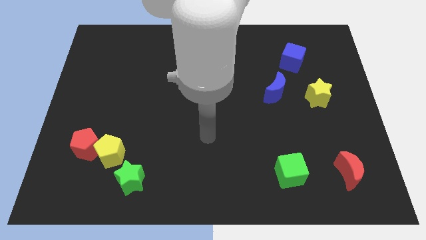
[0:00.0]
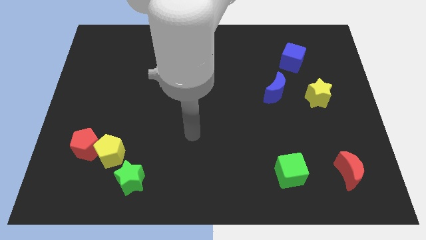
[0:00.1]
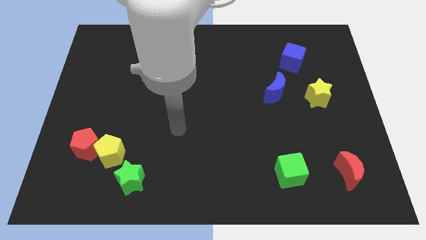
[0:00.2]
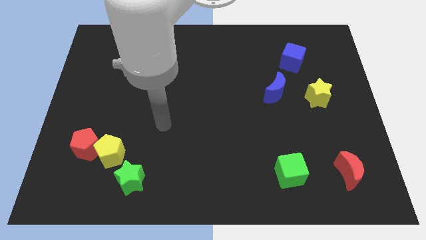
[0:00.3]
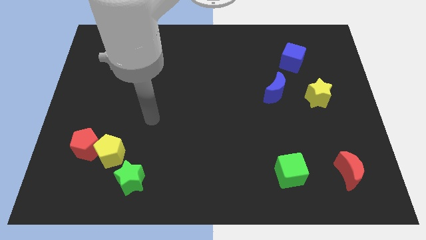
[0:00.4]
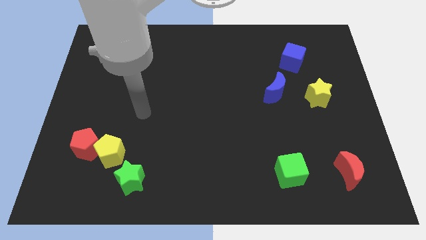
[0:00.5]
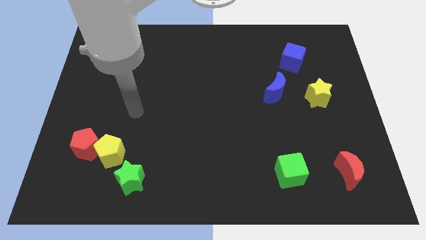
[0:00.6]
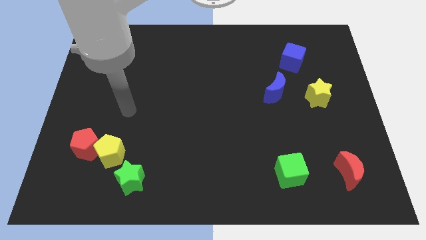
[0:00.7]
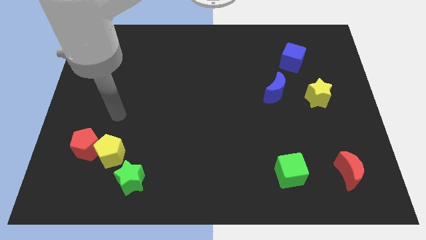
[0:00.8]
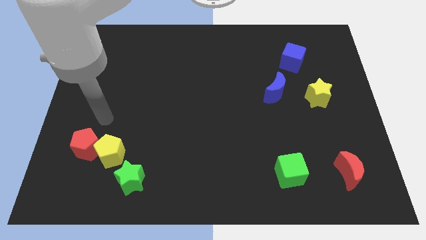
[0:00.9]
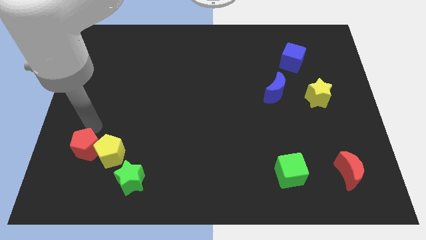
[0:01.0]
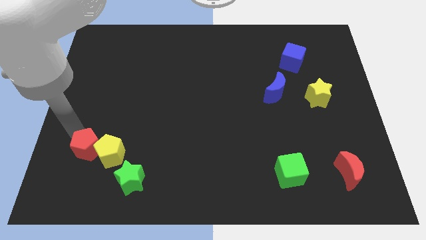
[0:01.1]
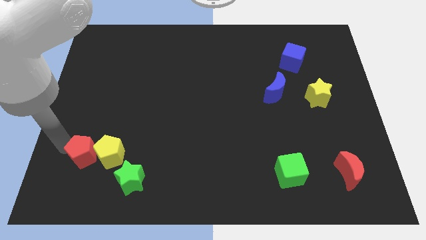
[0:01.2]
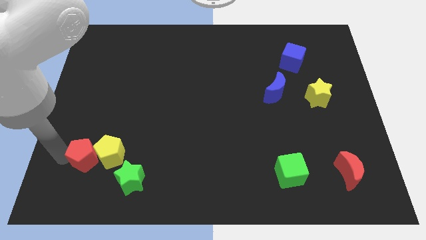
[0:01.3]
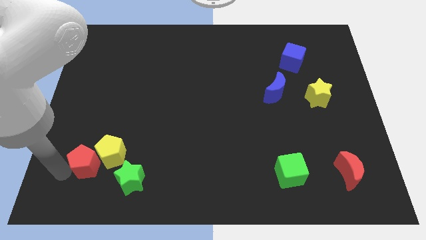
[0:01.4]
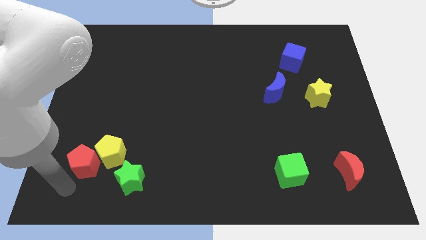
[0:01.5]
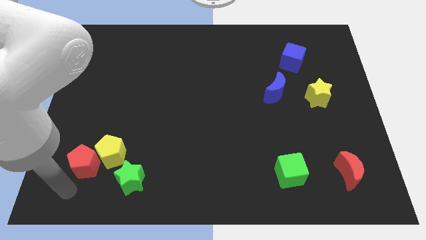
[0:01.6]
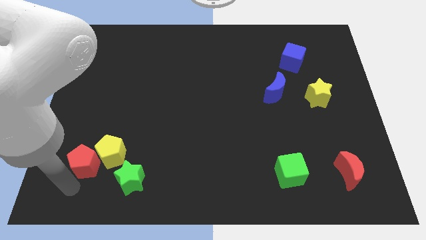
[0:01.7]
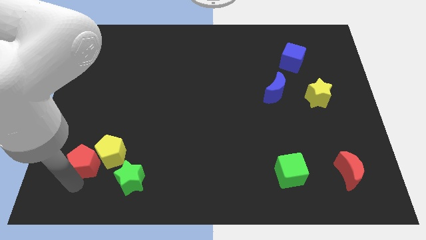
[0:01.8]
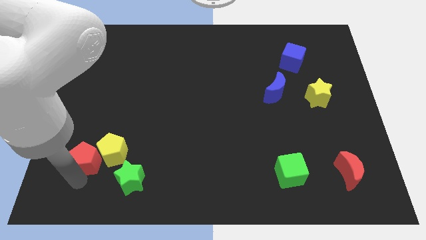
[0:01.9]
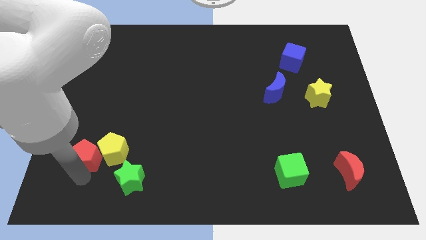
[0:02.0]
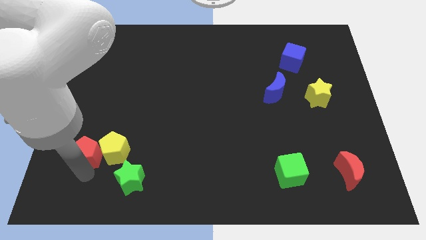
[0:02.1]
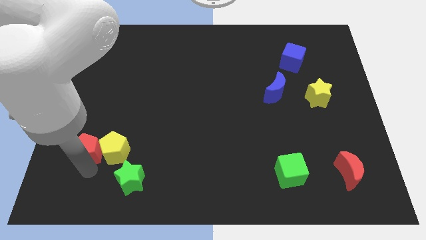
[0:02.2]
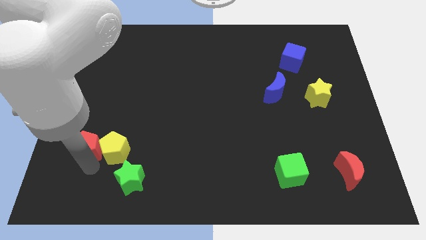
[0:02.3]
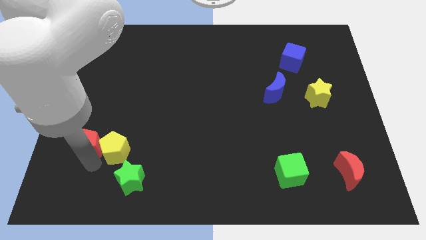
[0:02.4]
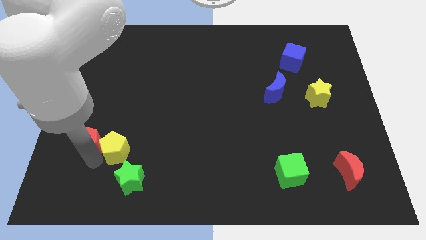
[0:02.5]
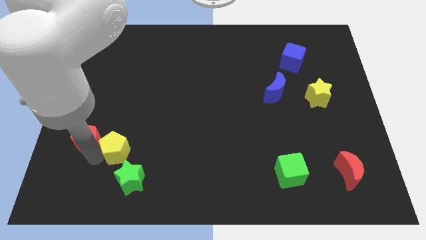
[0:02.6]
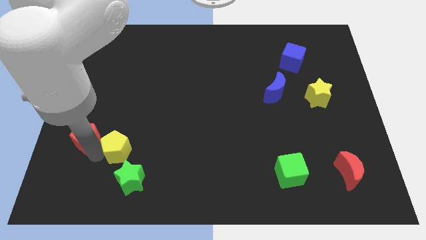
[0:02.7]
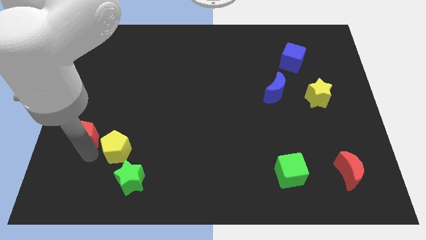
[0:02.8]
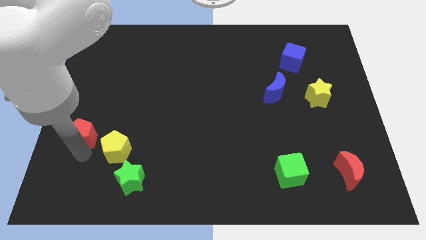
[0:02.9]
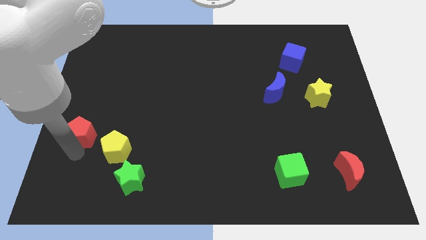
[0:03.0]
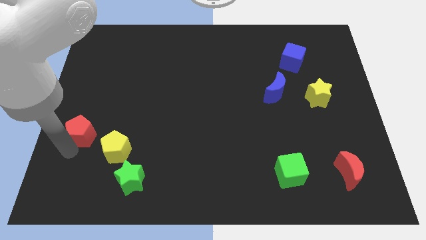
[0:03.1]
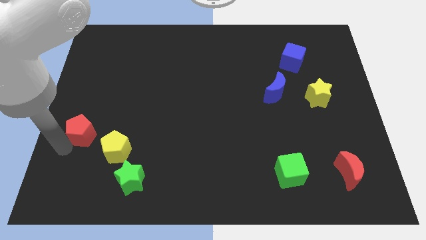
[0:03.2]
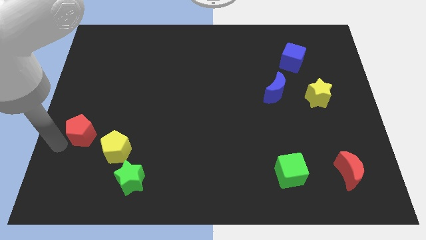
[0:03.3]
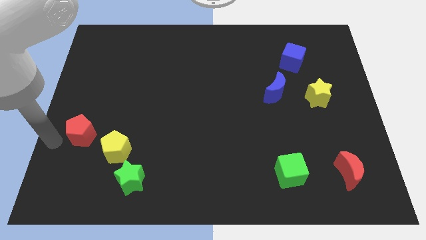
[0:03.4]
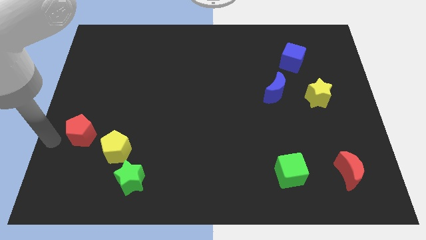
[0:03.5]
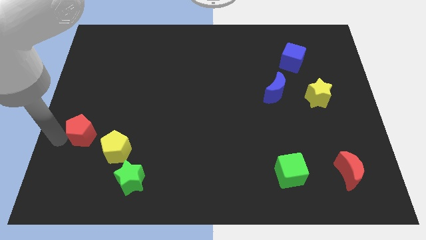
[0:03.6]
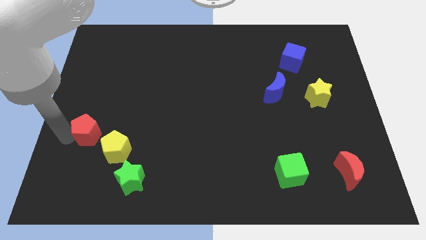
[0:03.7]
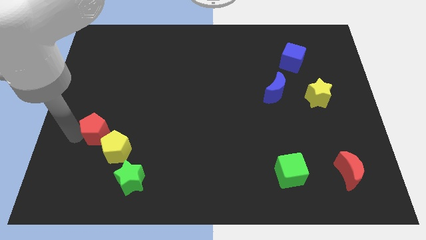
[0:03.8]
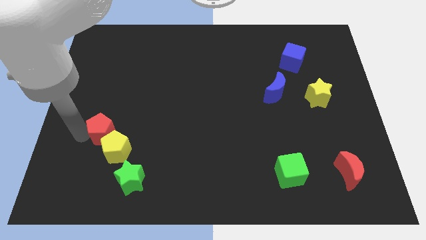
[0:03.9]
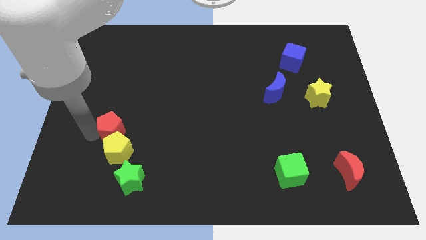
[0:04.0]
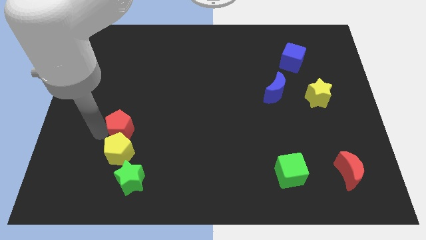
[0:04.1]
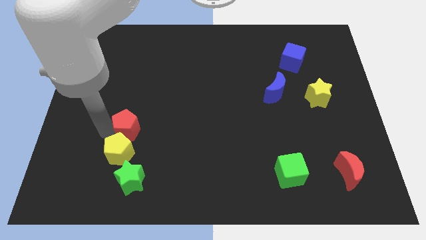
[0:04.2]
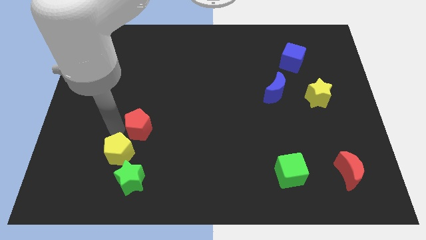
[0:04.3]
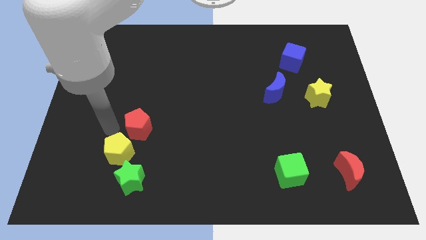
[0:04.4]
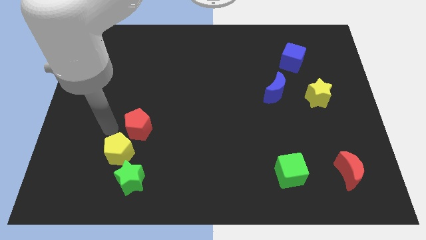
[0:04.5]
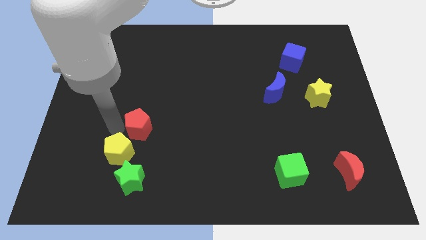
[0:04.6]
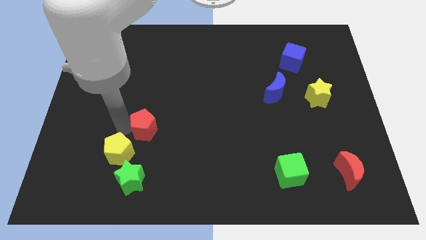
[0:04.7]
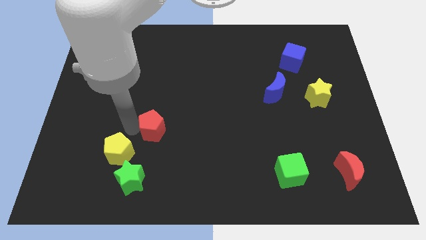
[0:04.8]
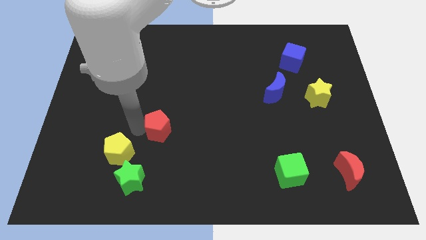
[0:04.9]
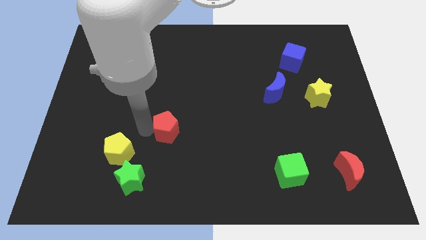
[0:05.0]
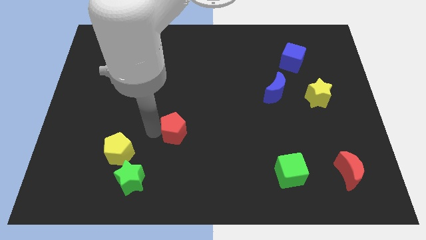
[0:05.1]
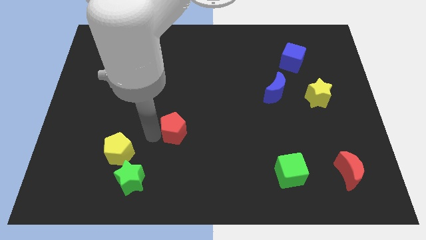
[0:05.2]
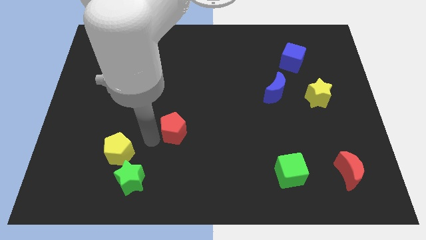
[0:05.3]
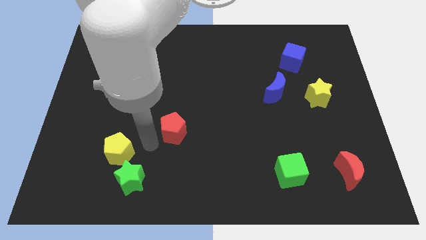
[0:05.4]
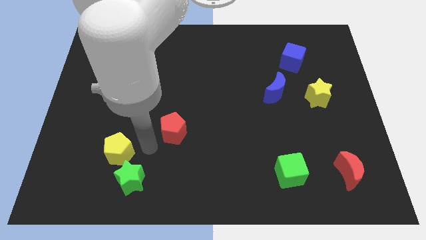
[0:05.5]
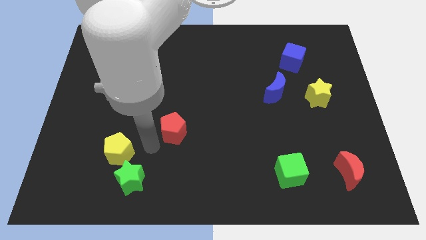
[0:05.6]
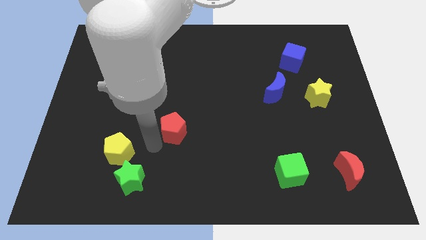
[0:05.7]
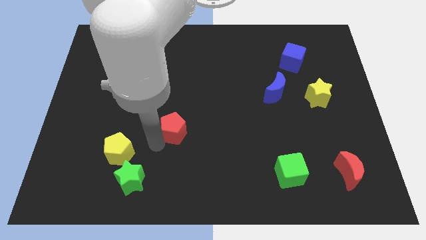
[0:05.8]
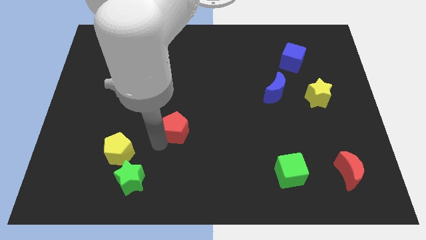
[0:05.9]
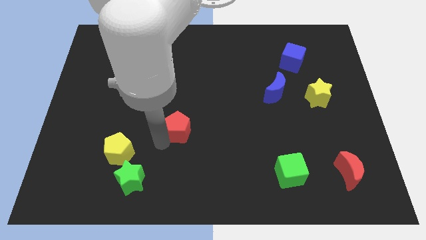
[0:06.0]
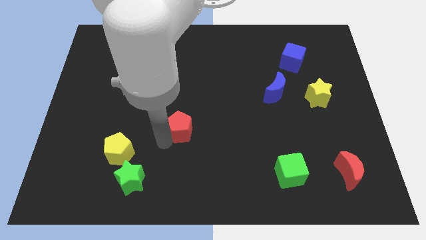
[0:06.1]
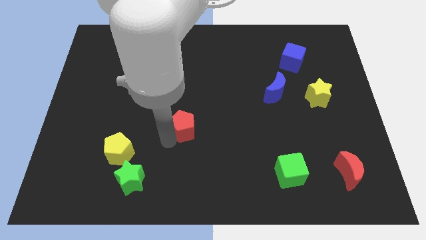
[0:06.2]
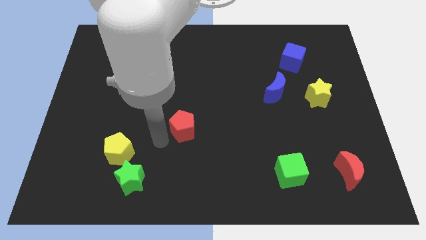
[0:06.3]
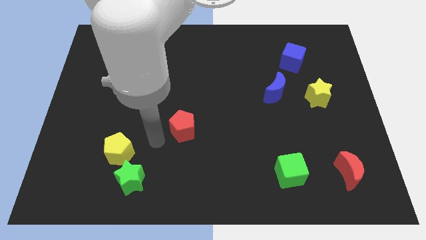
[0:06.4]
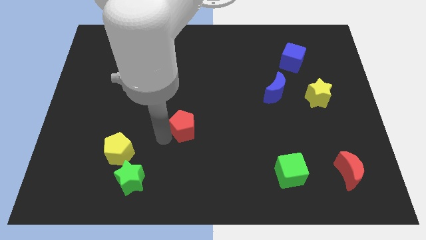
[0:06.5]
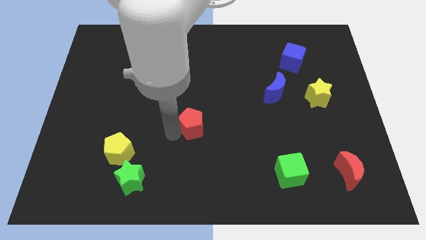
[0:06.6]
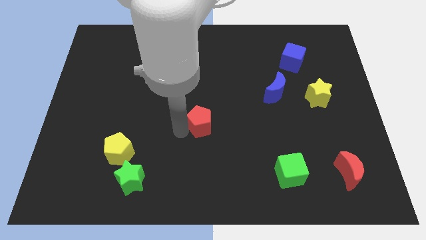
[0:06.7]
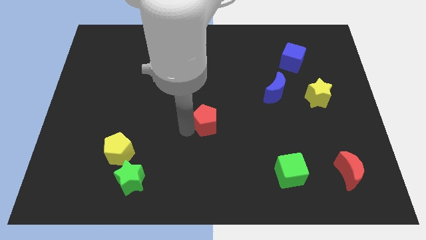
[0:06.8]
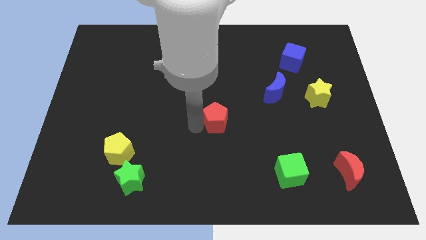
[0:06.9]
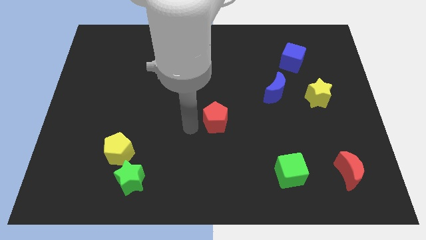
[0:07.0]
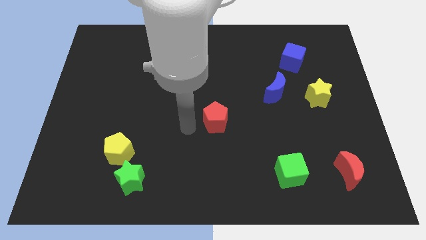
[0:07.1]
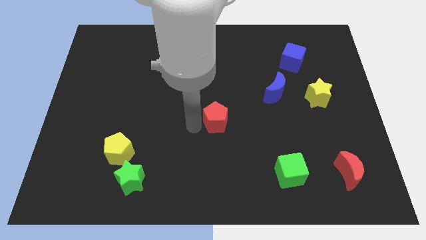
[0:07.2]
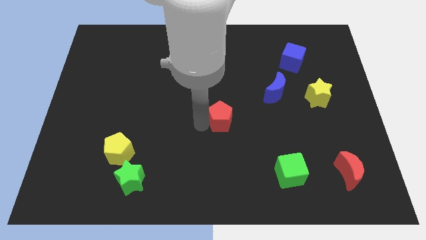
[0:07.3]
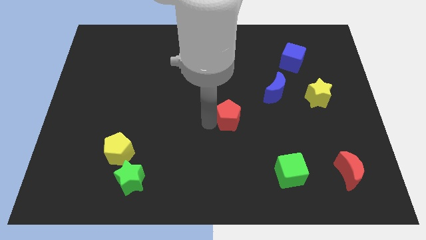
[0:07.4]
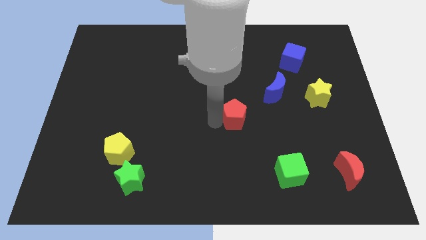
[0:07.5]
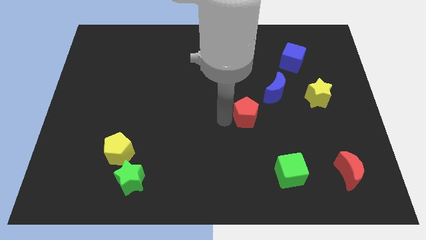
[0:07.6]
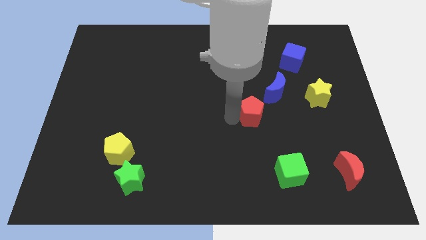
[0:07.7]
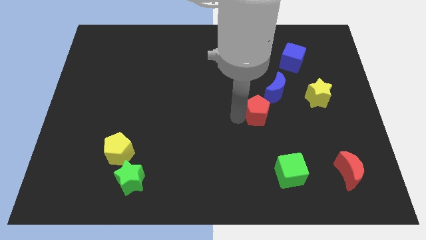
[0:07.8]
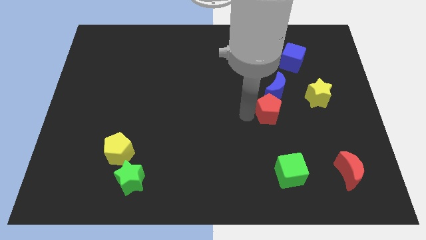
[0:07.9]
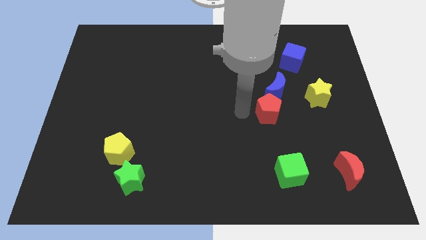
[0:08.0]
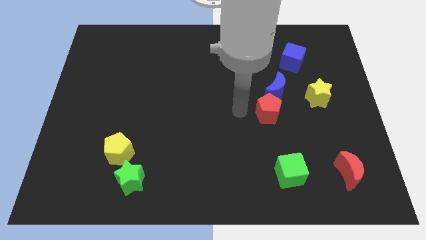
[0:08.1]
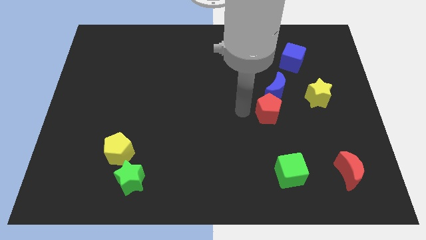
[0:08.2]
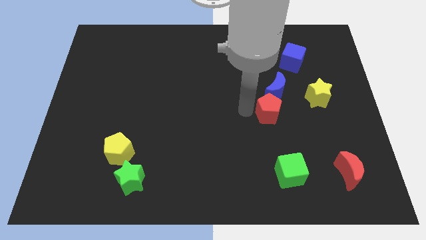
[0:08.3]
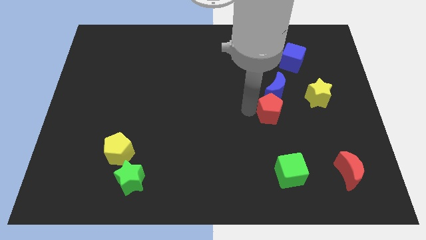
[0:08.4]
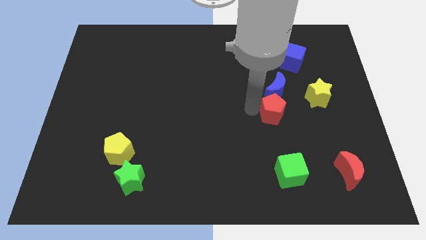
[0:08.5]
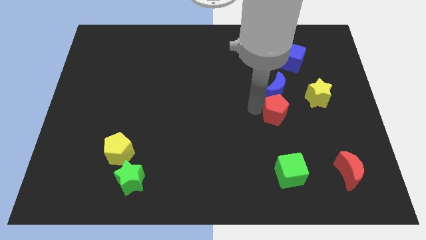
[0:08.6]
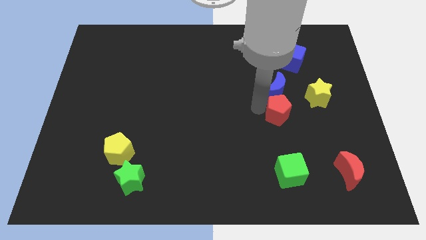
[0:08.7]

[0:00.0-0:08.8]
slide the red pentagon to the bottom left of the yellow star
